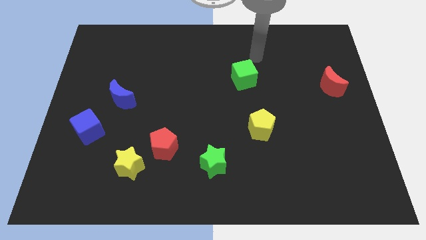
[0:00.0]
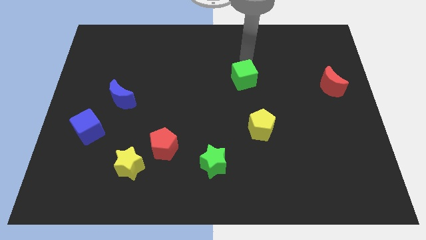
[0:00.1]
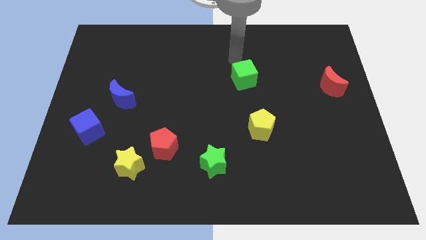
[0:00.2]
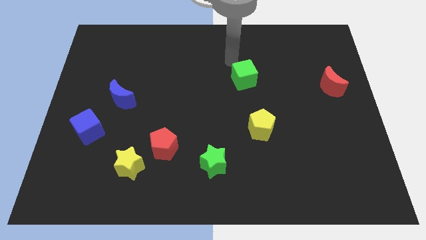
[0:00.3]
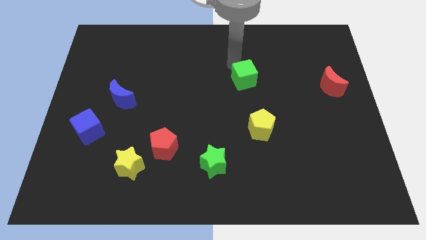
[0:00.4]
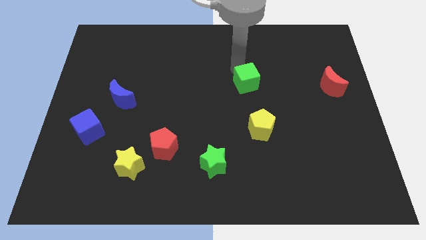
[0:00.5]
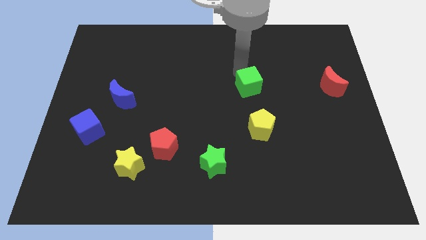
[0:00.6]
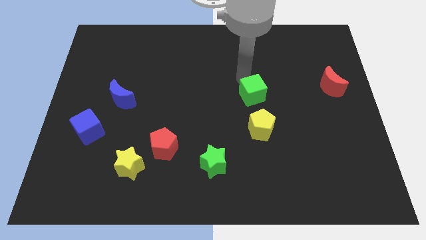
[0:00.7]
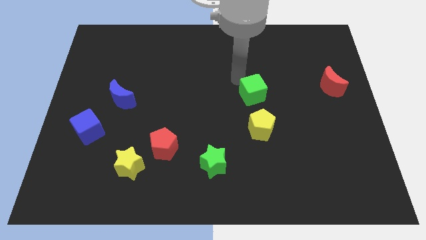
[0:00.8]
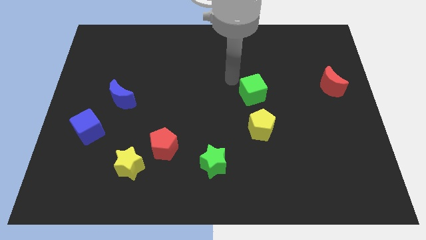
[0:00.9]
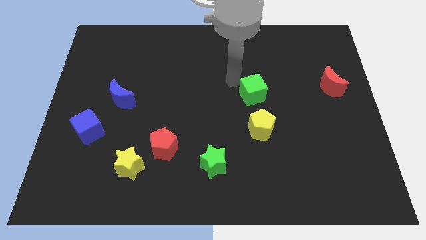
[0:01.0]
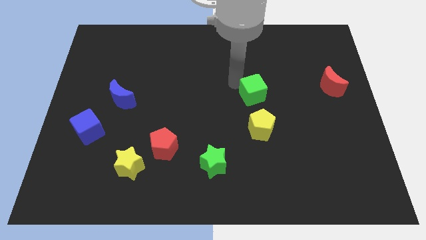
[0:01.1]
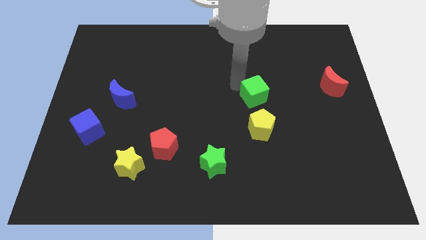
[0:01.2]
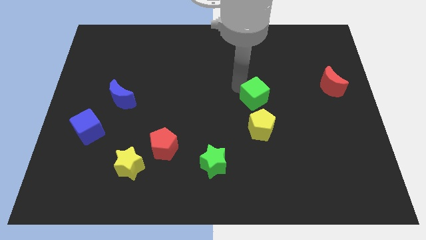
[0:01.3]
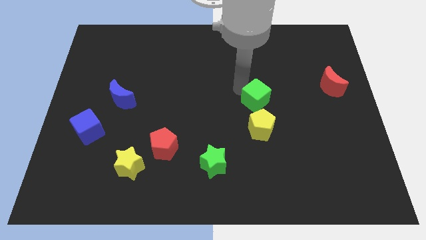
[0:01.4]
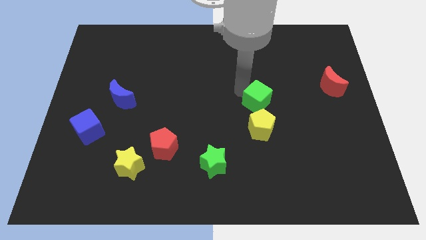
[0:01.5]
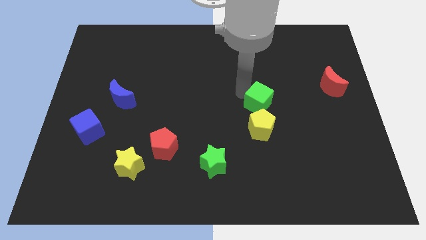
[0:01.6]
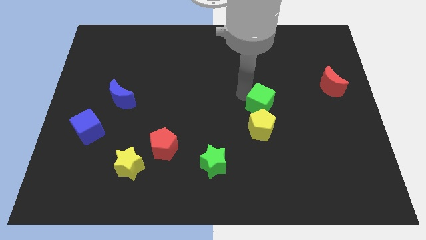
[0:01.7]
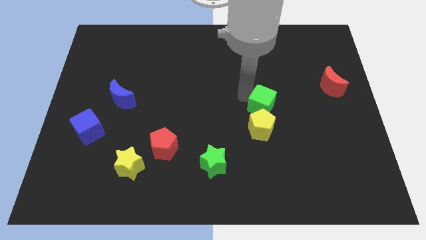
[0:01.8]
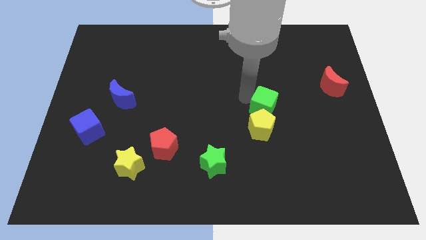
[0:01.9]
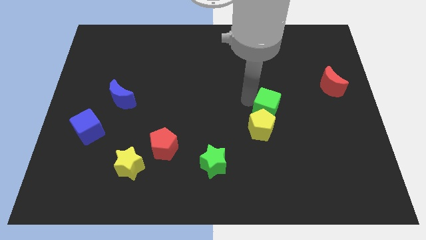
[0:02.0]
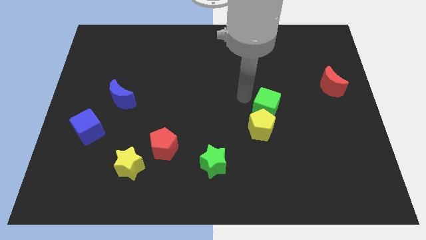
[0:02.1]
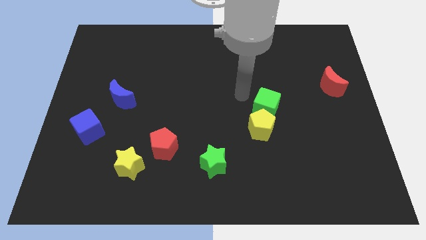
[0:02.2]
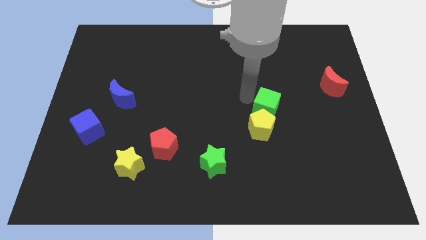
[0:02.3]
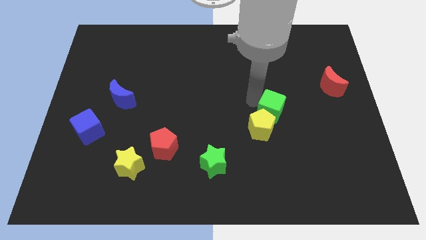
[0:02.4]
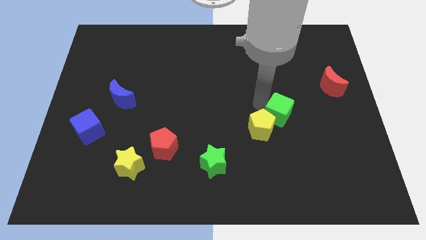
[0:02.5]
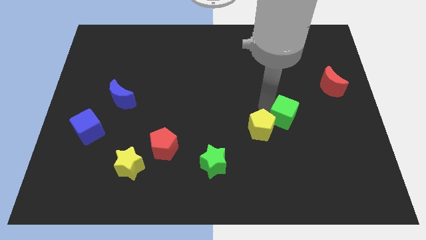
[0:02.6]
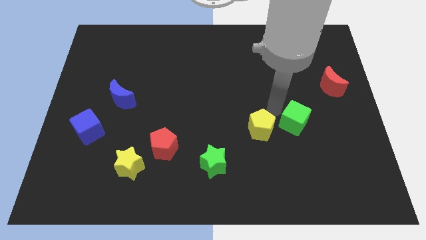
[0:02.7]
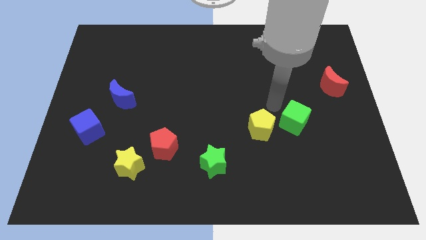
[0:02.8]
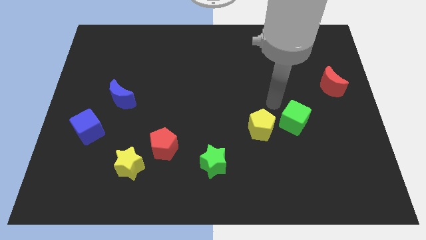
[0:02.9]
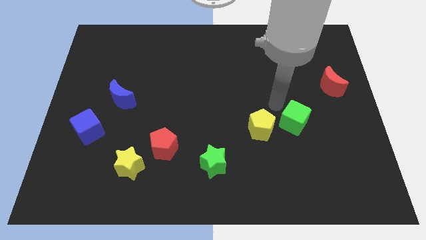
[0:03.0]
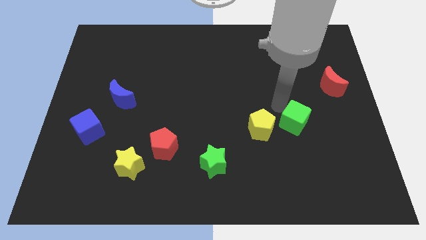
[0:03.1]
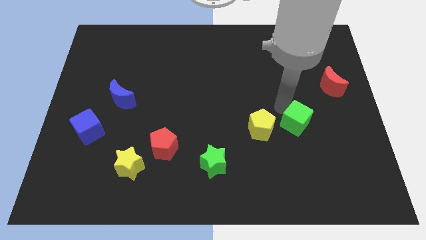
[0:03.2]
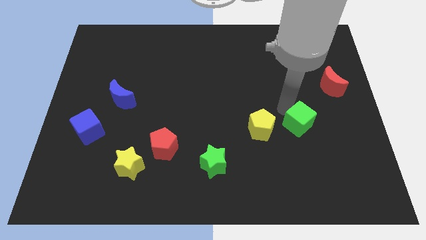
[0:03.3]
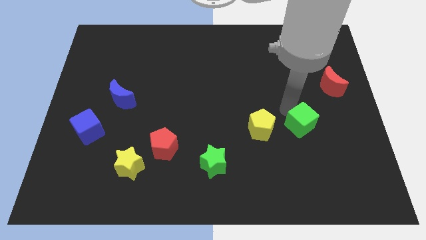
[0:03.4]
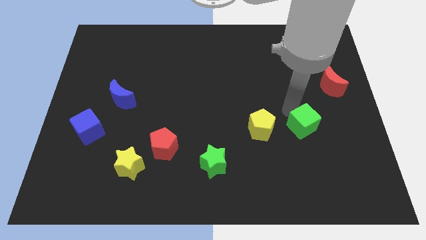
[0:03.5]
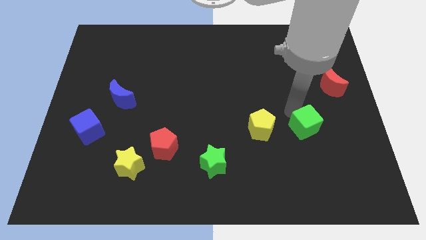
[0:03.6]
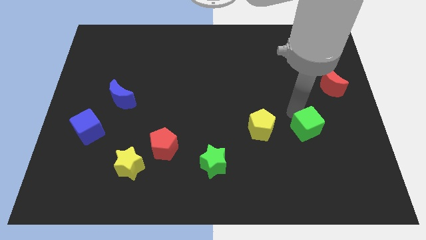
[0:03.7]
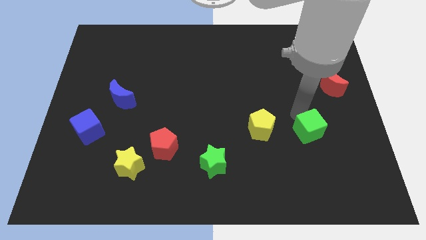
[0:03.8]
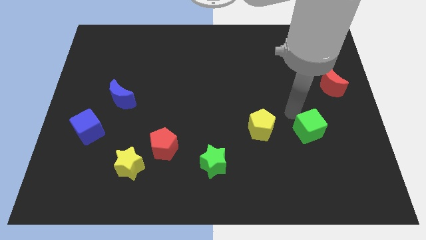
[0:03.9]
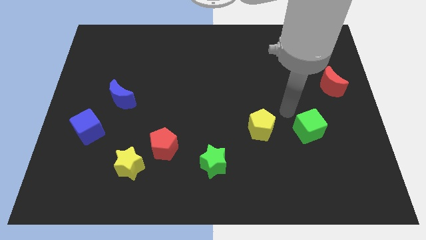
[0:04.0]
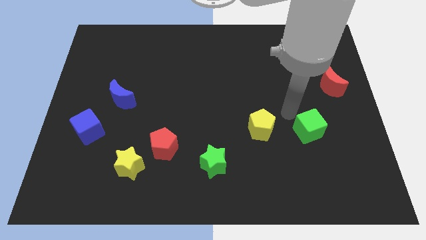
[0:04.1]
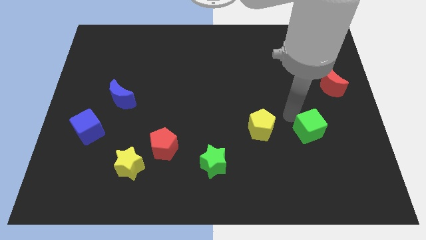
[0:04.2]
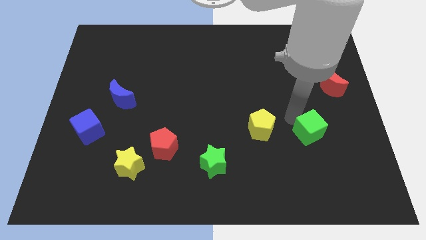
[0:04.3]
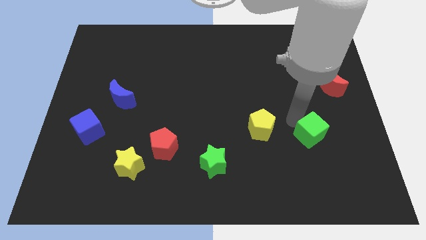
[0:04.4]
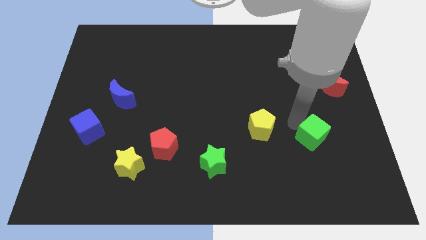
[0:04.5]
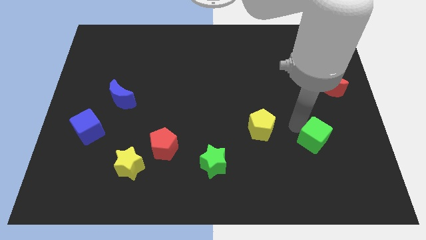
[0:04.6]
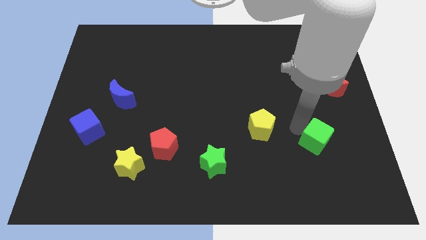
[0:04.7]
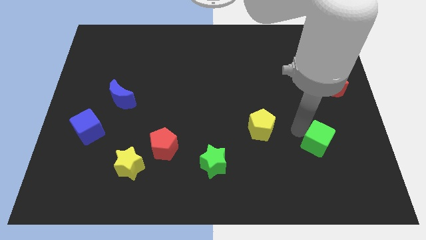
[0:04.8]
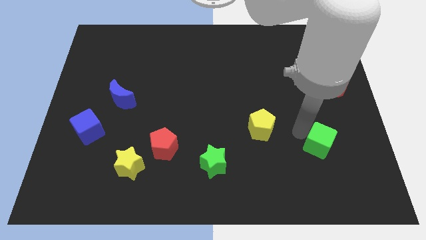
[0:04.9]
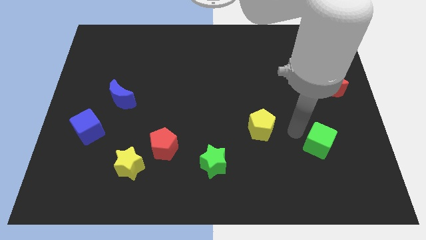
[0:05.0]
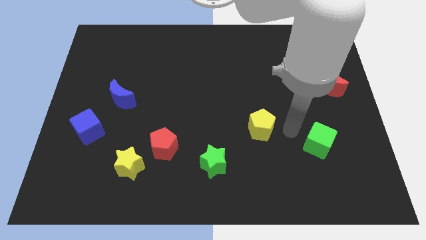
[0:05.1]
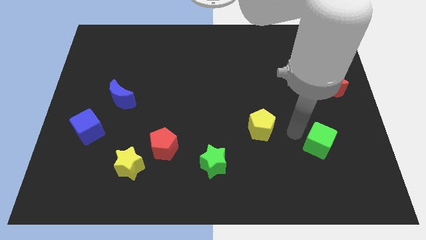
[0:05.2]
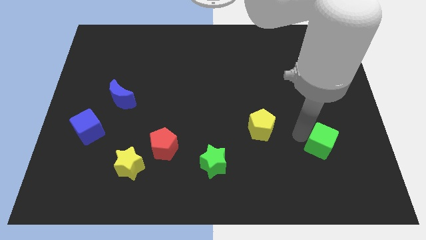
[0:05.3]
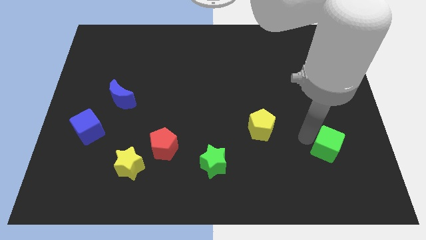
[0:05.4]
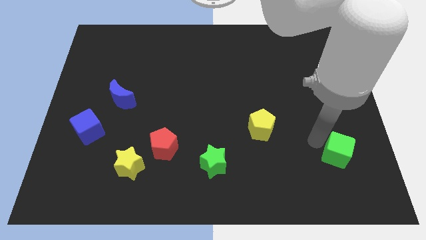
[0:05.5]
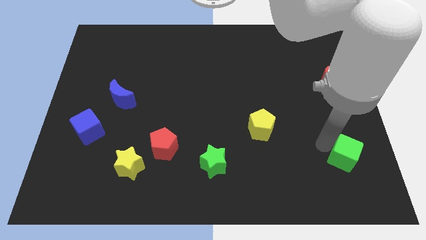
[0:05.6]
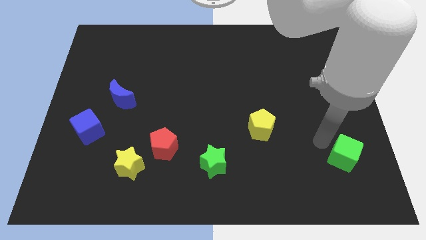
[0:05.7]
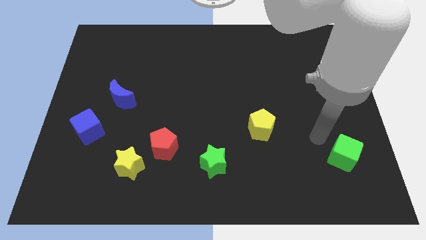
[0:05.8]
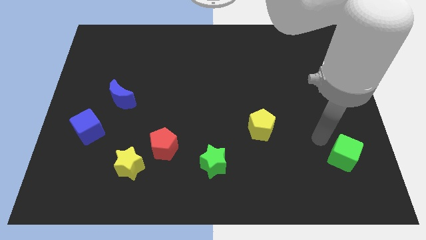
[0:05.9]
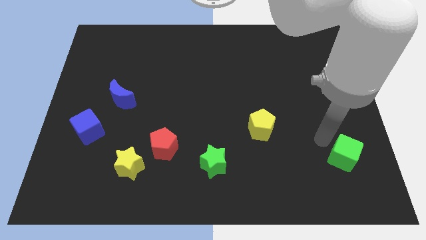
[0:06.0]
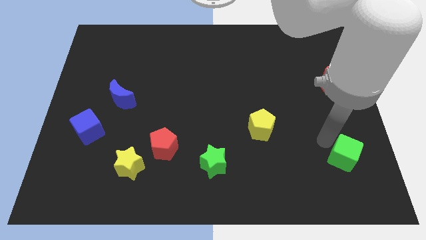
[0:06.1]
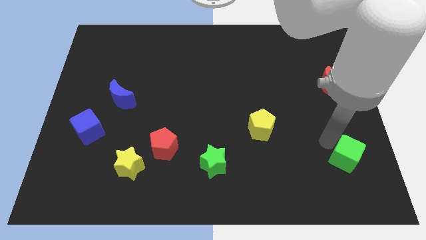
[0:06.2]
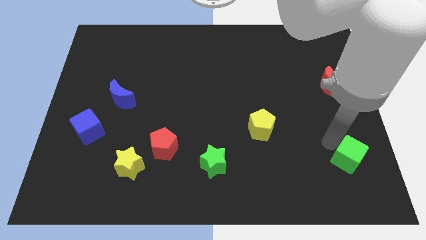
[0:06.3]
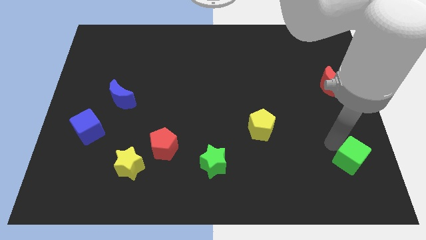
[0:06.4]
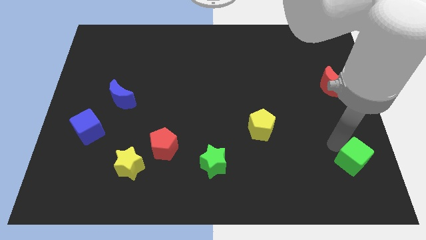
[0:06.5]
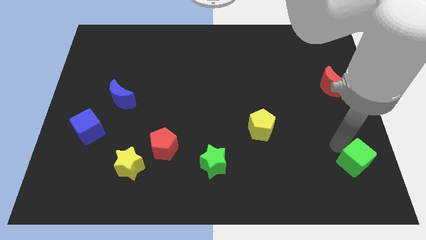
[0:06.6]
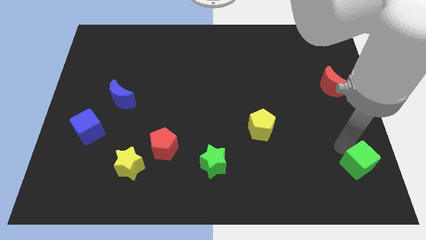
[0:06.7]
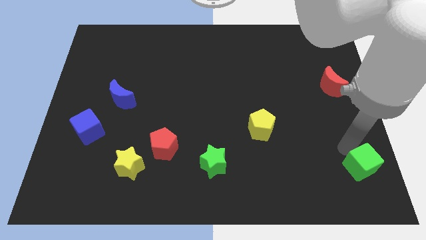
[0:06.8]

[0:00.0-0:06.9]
put the green cube to the bottom right of the board

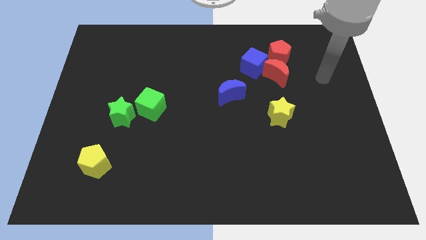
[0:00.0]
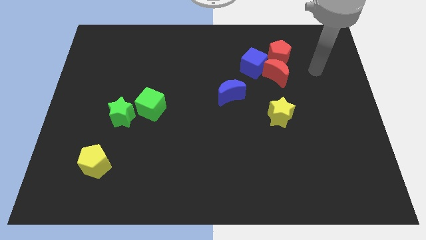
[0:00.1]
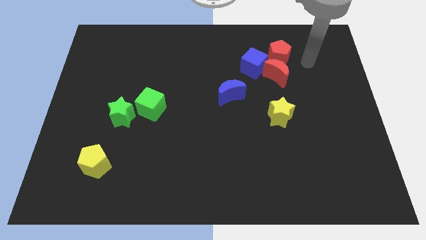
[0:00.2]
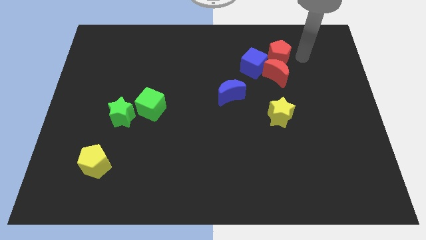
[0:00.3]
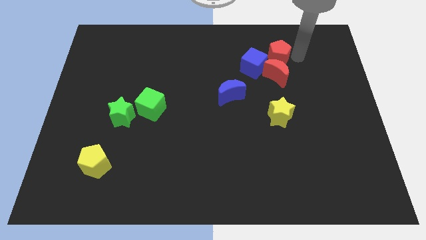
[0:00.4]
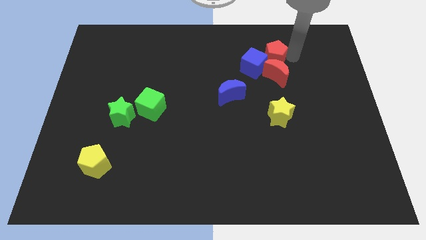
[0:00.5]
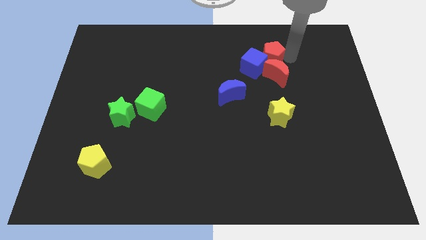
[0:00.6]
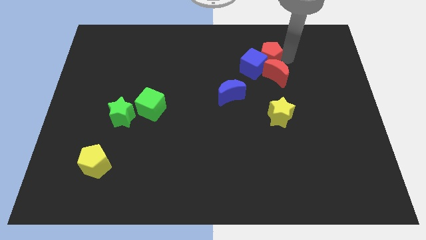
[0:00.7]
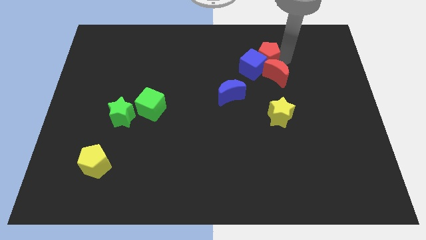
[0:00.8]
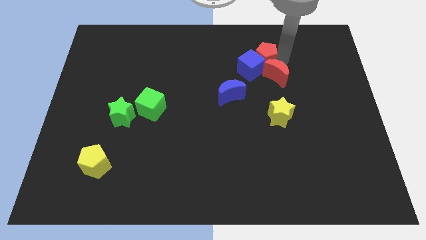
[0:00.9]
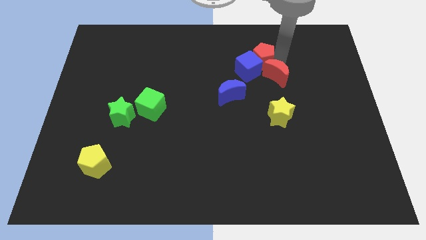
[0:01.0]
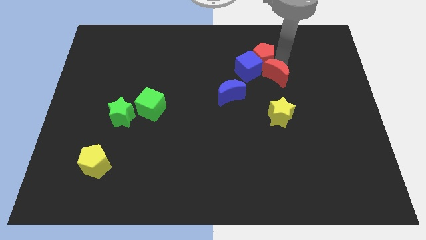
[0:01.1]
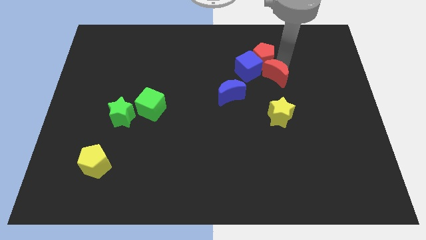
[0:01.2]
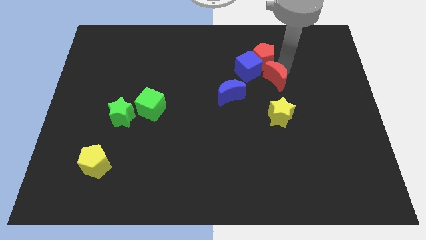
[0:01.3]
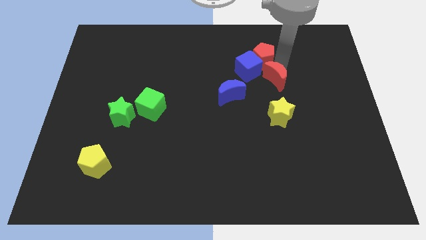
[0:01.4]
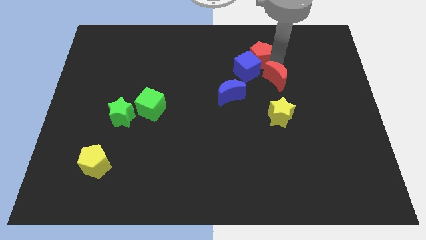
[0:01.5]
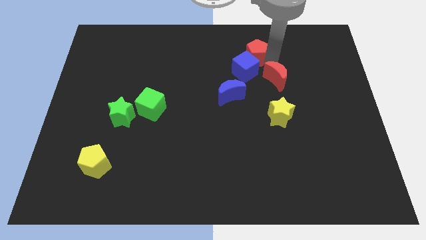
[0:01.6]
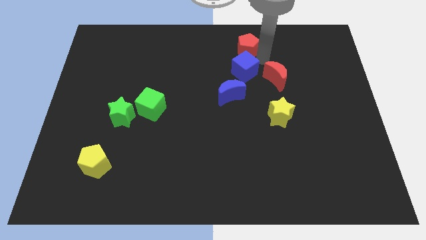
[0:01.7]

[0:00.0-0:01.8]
push the red pentagon to the top side
